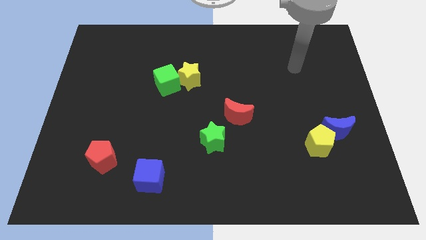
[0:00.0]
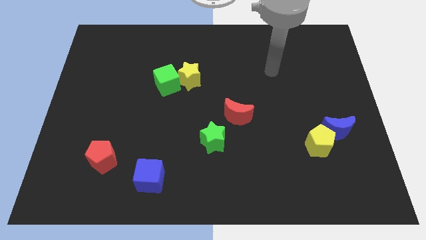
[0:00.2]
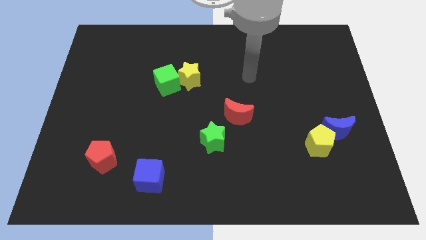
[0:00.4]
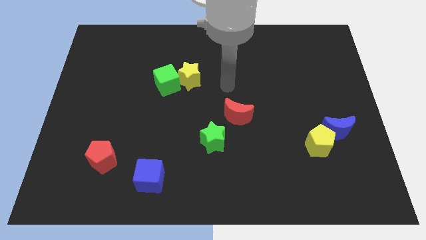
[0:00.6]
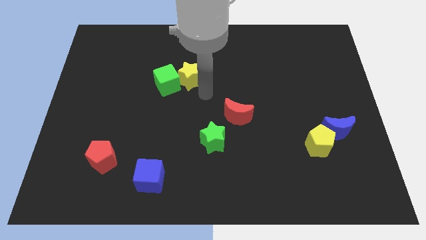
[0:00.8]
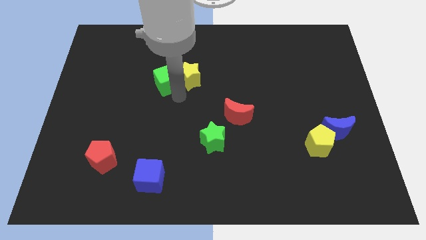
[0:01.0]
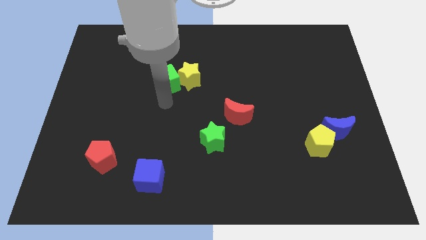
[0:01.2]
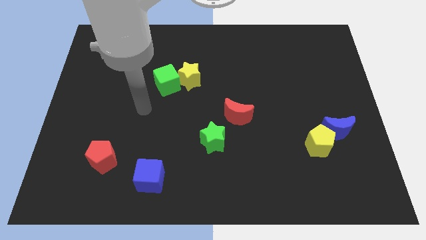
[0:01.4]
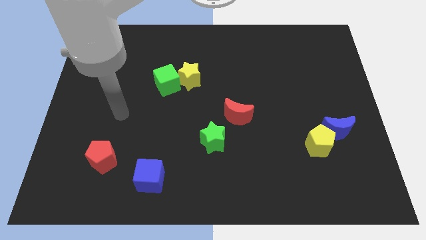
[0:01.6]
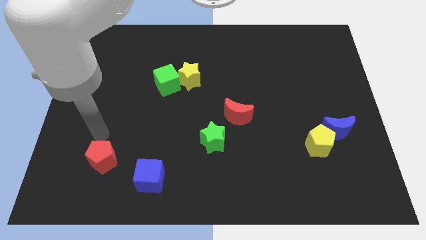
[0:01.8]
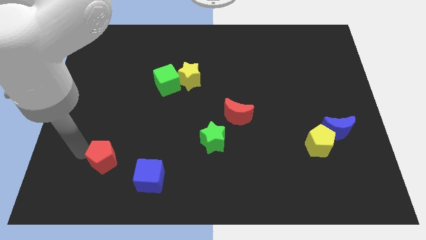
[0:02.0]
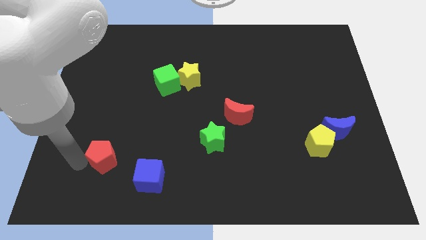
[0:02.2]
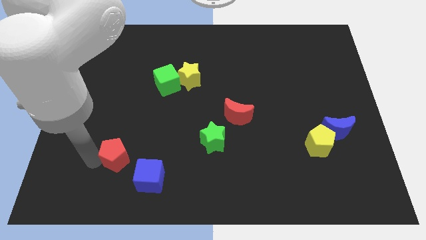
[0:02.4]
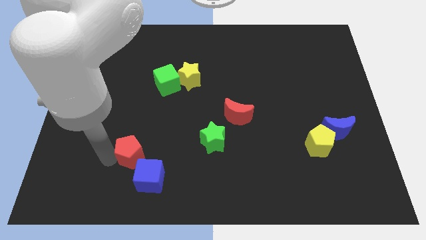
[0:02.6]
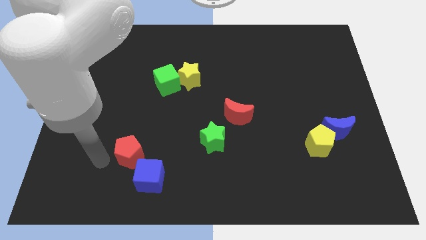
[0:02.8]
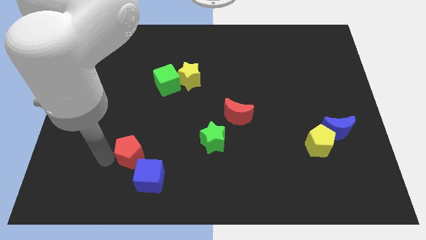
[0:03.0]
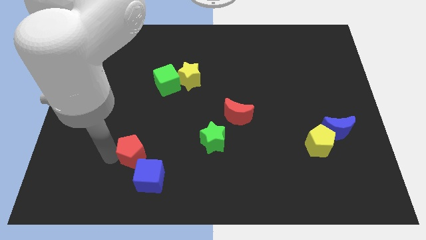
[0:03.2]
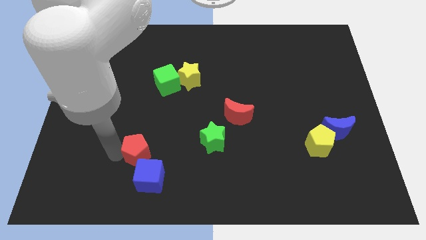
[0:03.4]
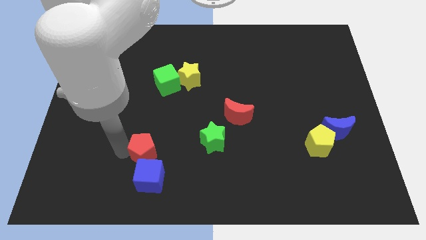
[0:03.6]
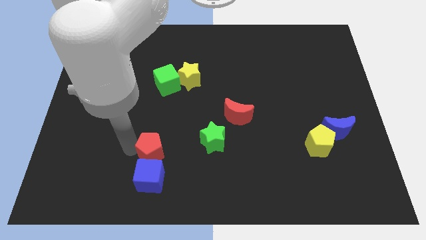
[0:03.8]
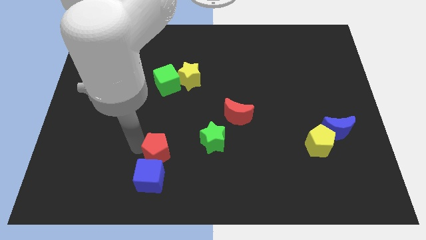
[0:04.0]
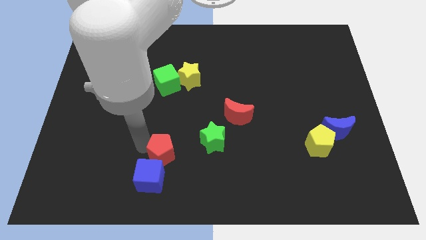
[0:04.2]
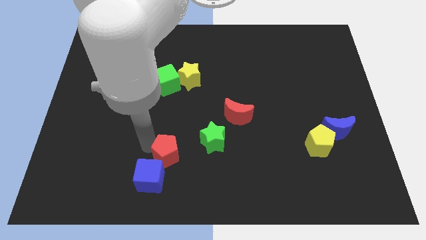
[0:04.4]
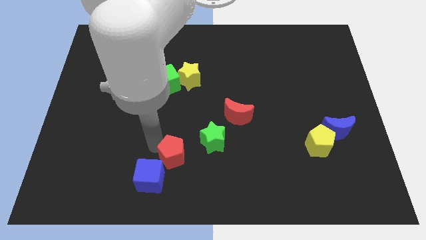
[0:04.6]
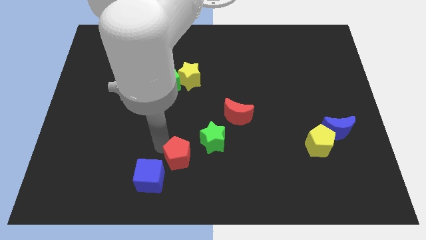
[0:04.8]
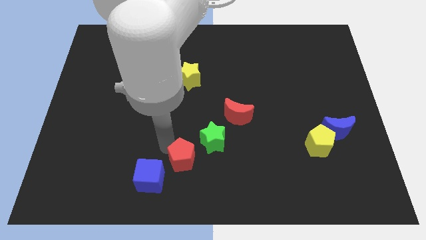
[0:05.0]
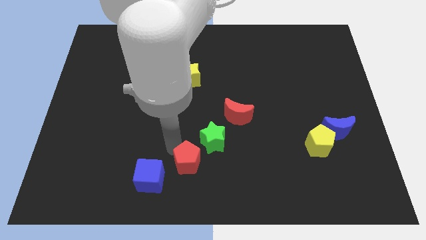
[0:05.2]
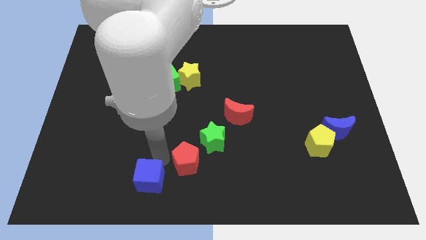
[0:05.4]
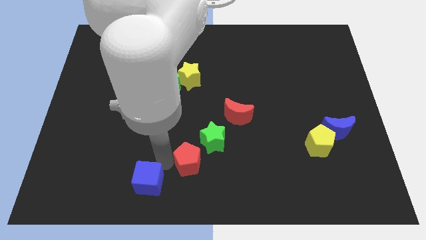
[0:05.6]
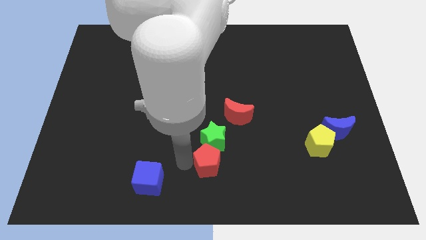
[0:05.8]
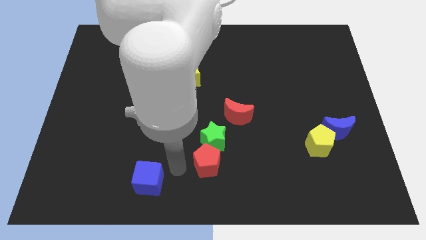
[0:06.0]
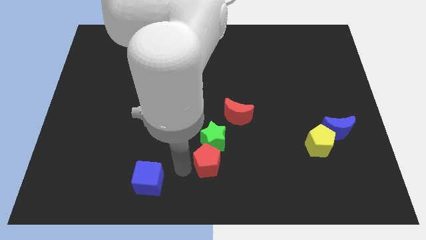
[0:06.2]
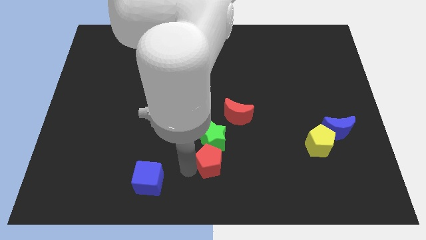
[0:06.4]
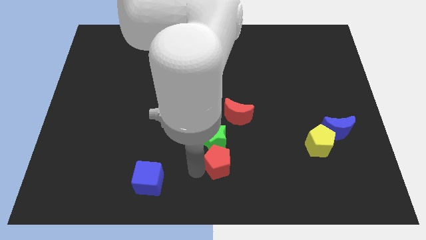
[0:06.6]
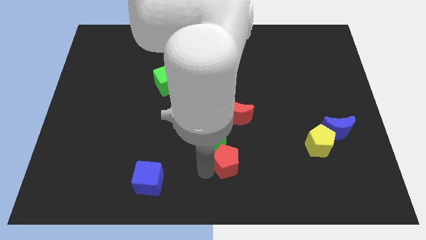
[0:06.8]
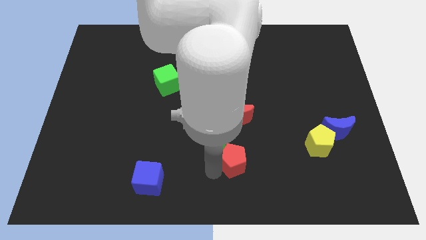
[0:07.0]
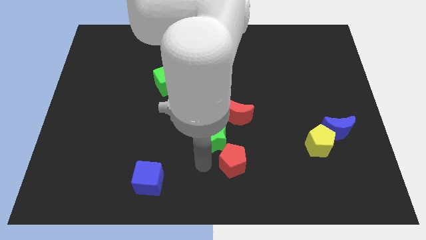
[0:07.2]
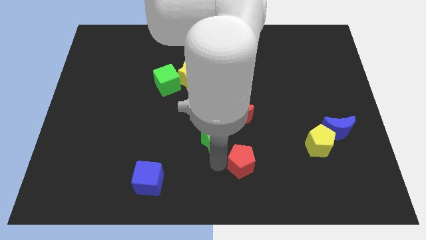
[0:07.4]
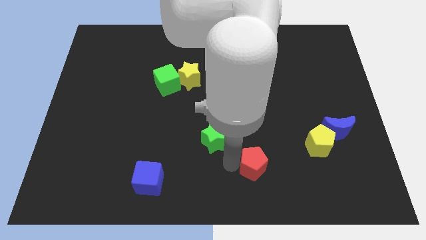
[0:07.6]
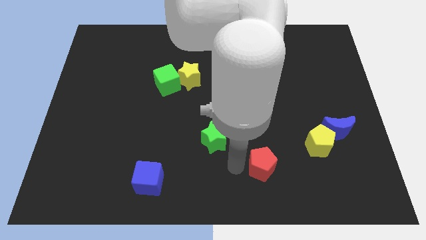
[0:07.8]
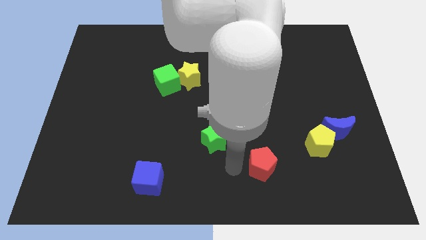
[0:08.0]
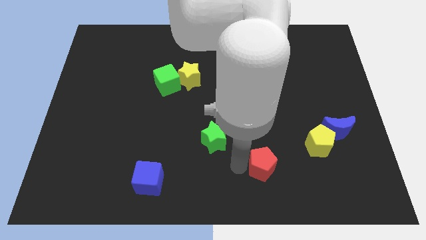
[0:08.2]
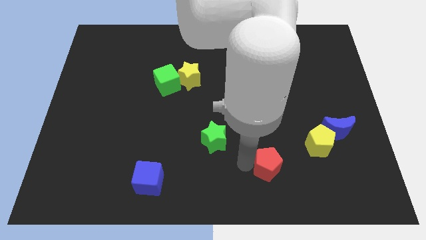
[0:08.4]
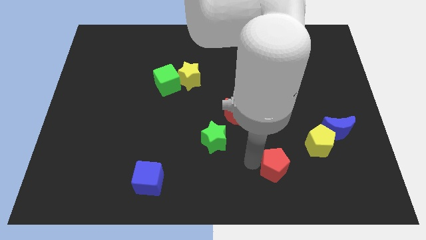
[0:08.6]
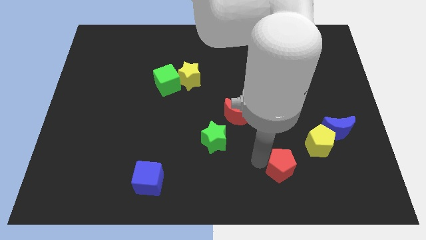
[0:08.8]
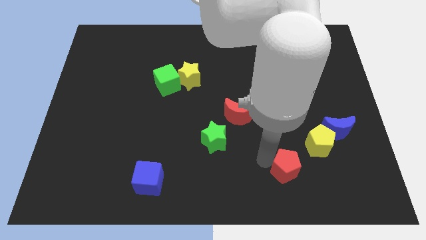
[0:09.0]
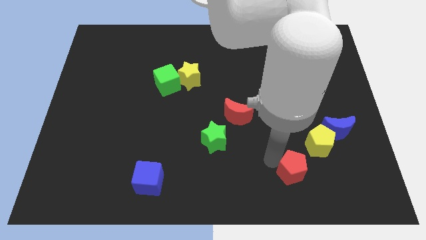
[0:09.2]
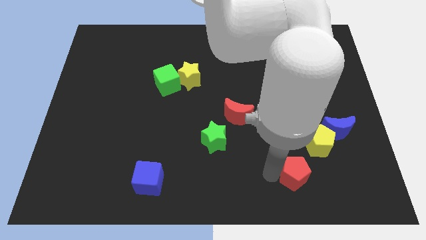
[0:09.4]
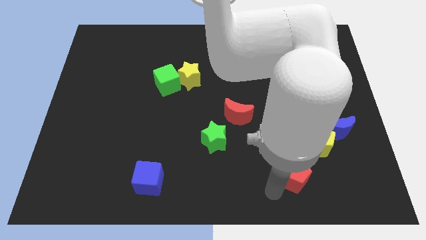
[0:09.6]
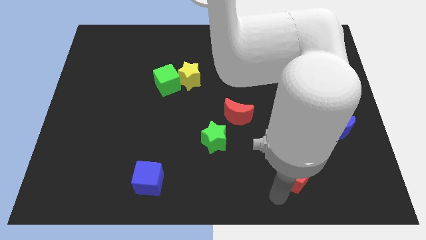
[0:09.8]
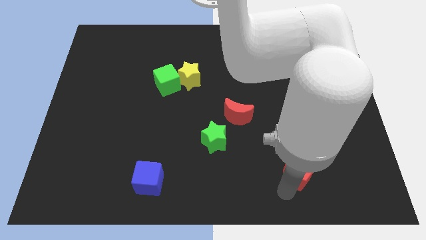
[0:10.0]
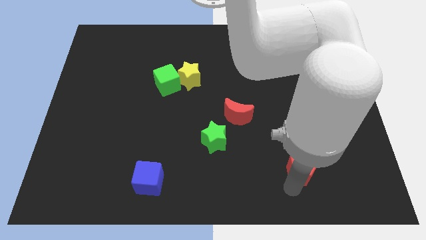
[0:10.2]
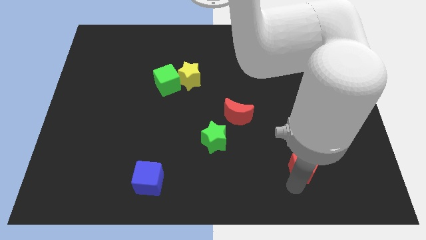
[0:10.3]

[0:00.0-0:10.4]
slide the red pentagon to the bottom left of the blue moon

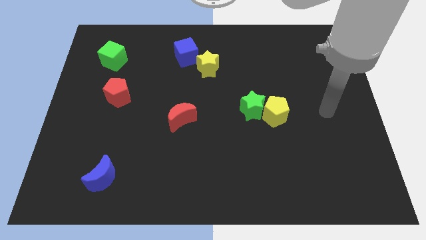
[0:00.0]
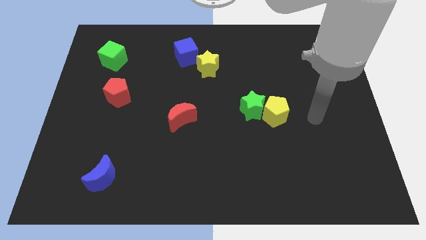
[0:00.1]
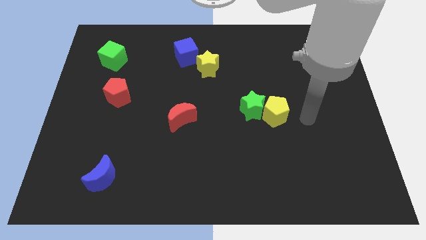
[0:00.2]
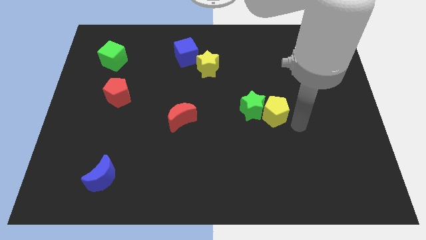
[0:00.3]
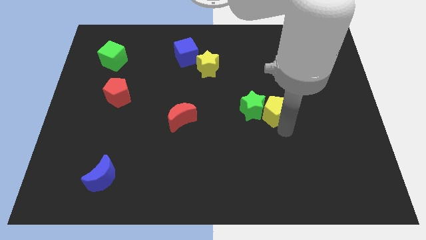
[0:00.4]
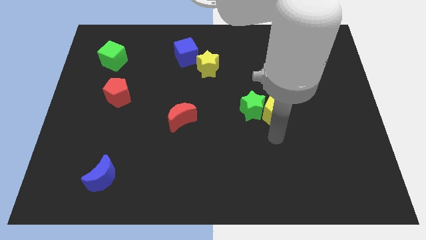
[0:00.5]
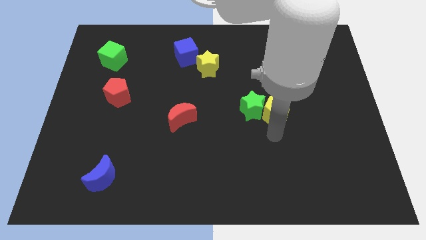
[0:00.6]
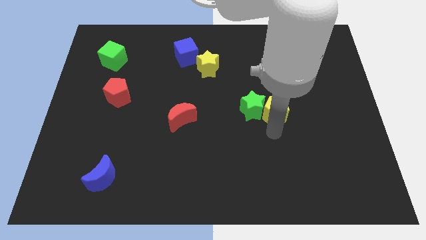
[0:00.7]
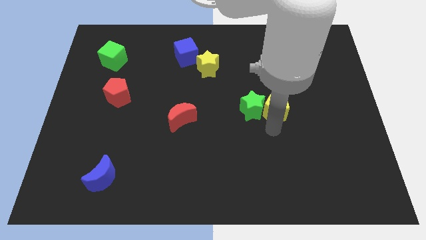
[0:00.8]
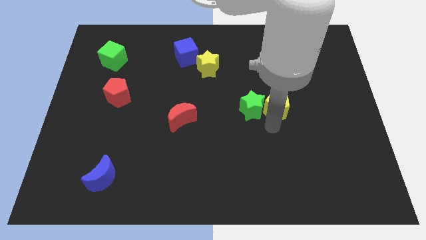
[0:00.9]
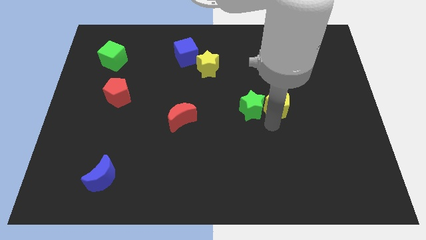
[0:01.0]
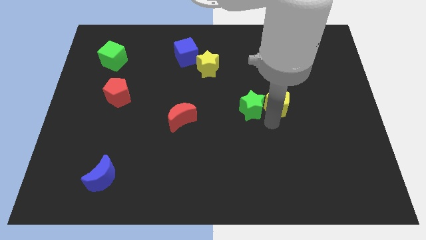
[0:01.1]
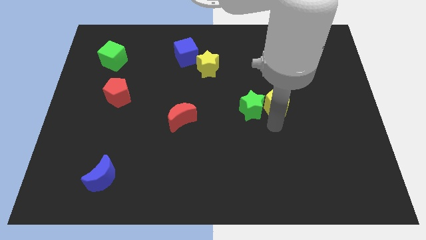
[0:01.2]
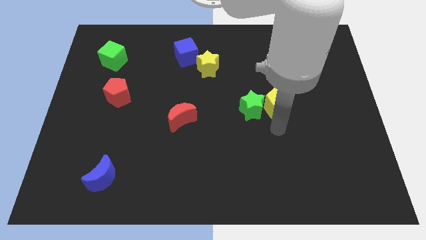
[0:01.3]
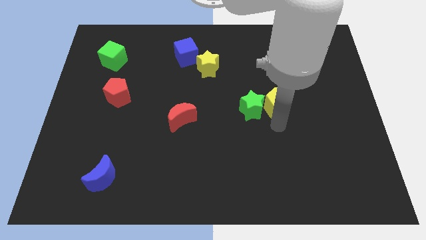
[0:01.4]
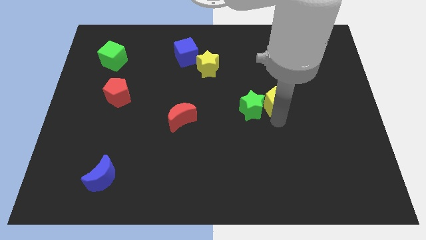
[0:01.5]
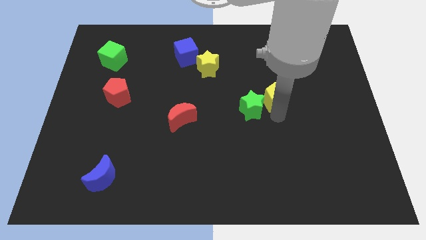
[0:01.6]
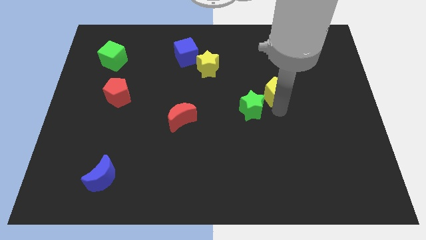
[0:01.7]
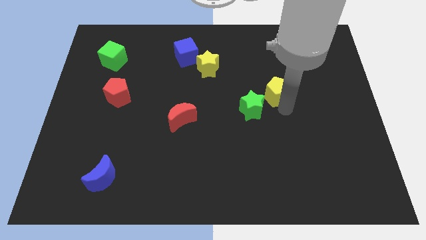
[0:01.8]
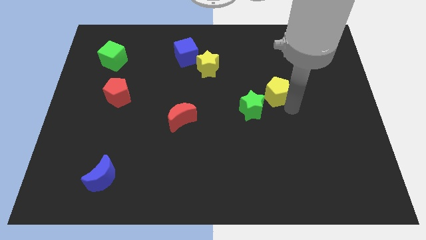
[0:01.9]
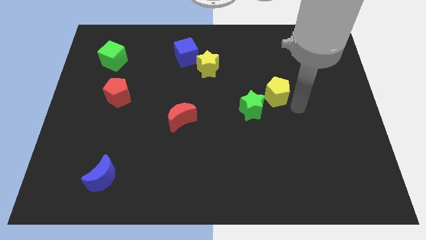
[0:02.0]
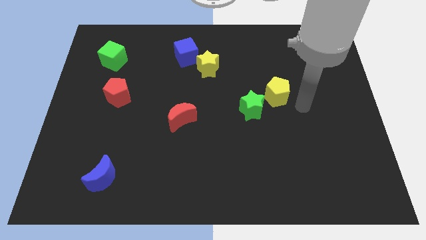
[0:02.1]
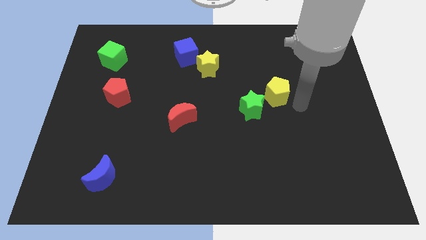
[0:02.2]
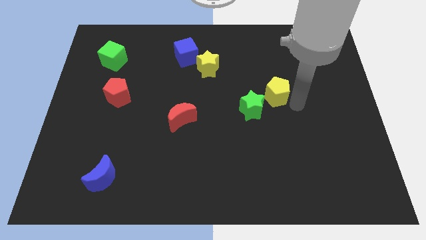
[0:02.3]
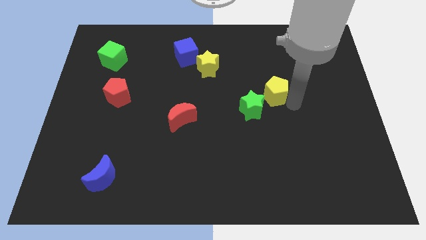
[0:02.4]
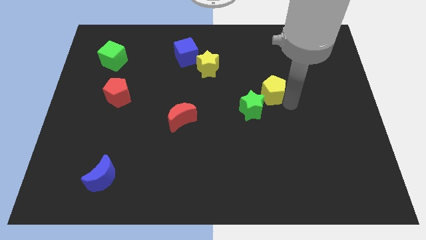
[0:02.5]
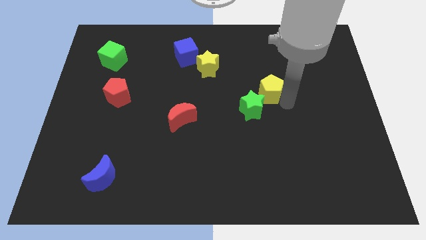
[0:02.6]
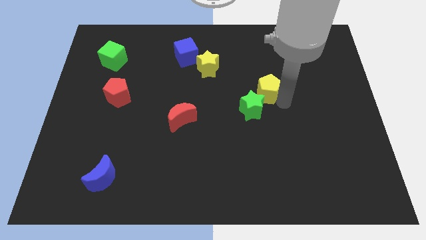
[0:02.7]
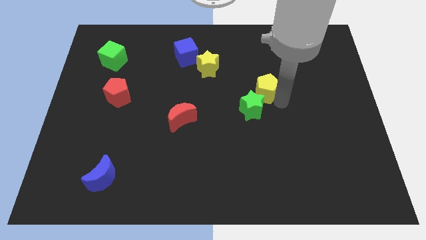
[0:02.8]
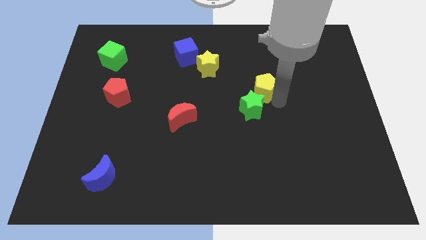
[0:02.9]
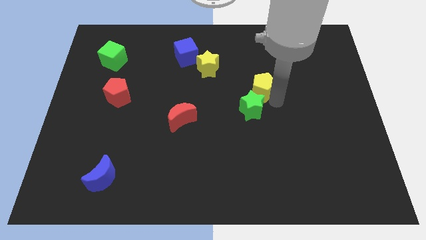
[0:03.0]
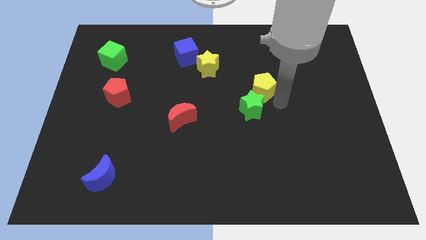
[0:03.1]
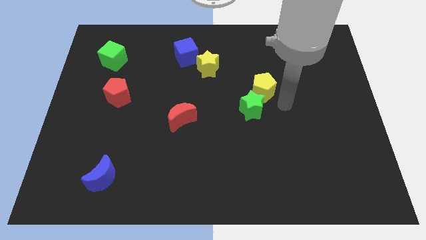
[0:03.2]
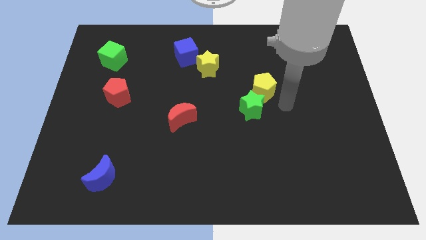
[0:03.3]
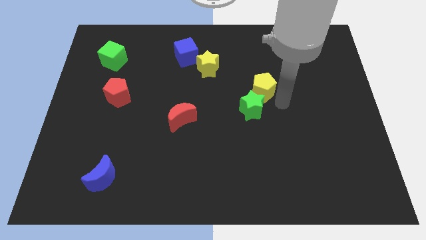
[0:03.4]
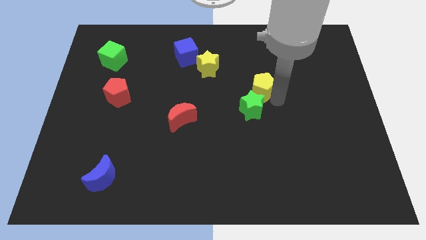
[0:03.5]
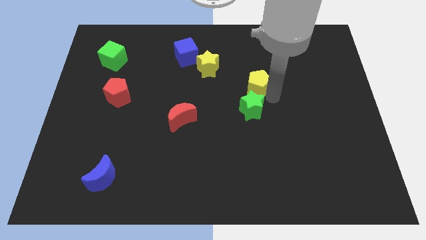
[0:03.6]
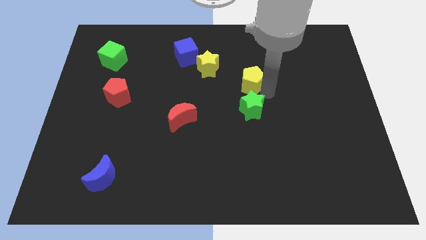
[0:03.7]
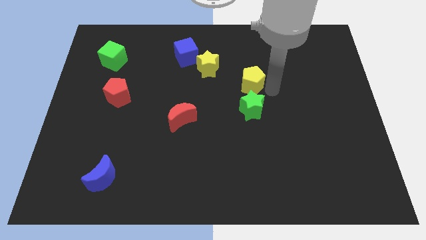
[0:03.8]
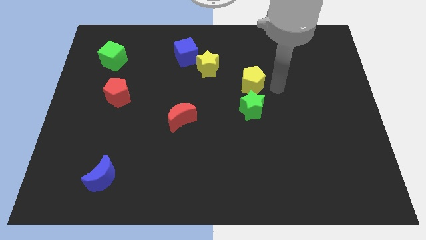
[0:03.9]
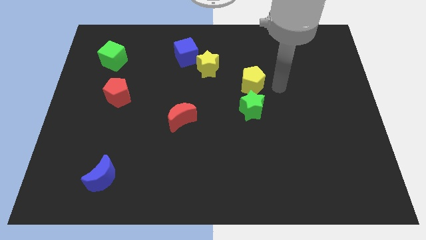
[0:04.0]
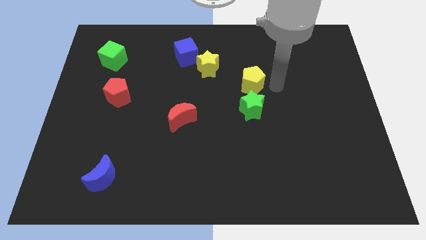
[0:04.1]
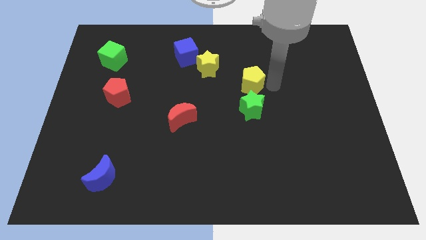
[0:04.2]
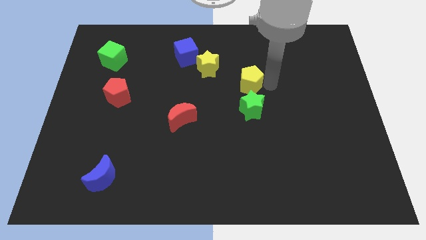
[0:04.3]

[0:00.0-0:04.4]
move the yellow pentagon diagonally down and to the right of the yellow star
